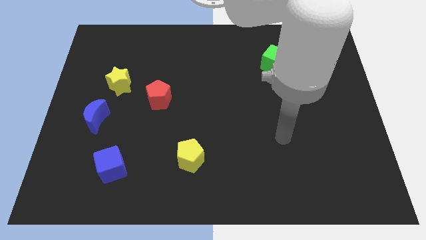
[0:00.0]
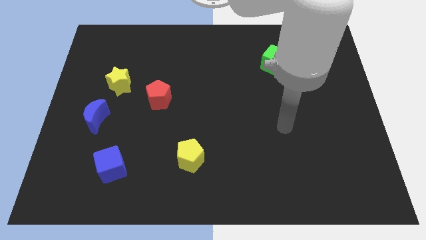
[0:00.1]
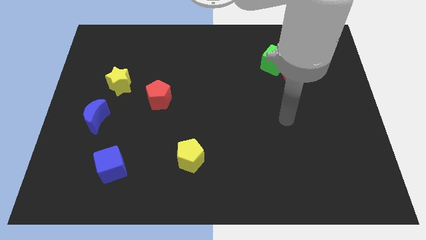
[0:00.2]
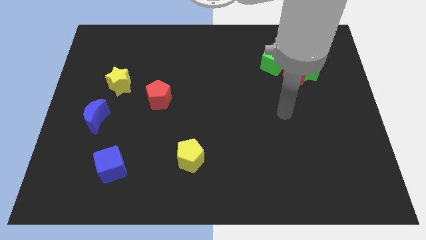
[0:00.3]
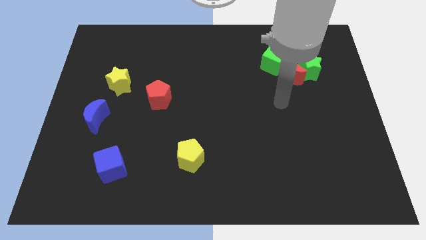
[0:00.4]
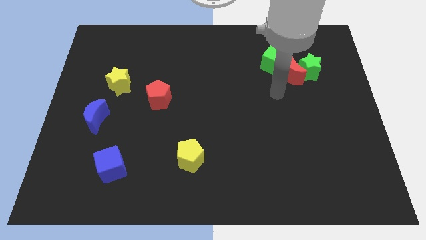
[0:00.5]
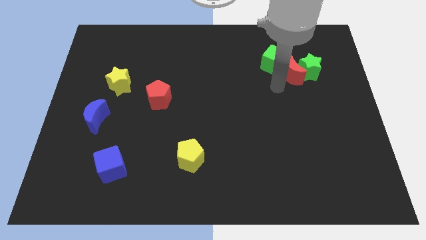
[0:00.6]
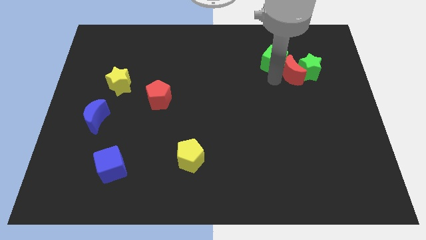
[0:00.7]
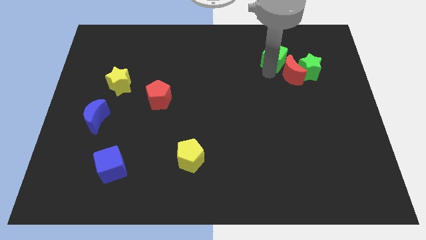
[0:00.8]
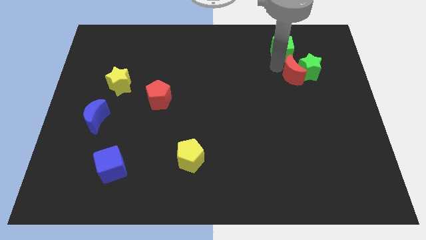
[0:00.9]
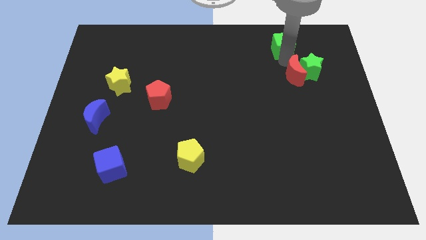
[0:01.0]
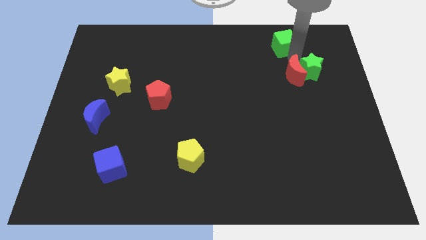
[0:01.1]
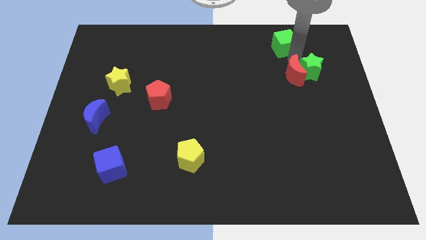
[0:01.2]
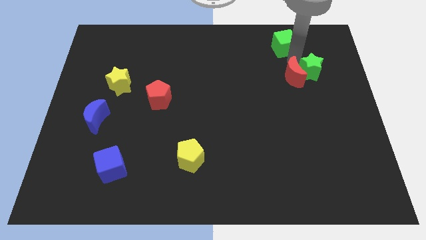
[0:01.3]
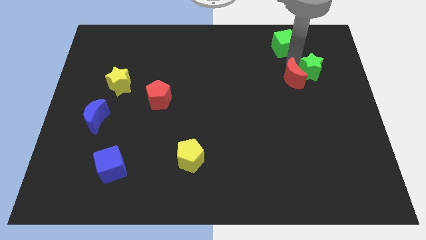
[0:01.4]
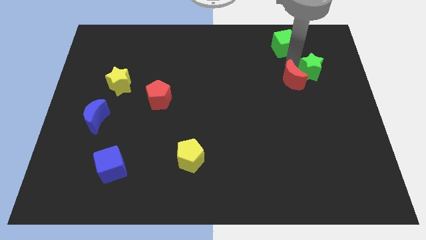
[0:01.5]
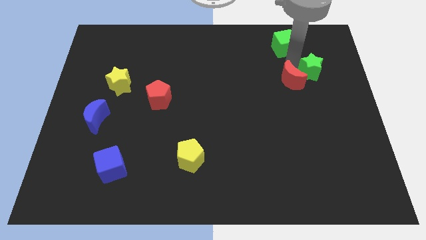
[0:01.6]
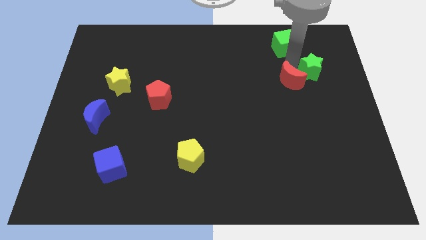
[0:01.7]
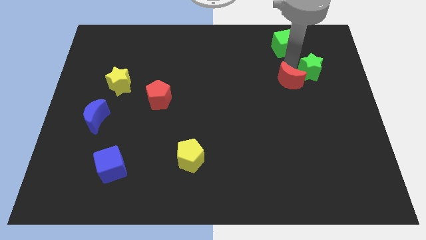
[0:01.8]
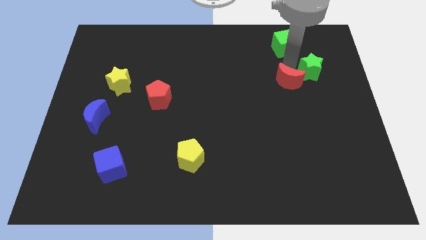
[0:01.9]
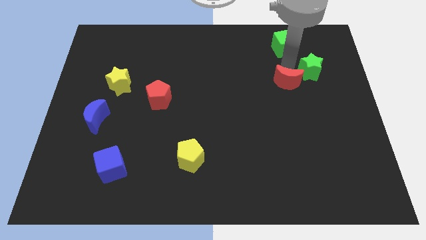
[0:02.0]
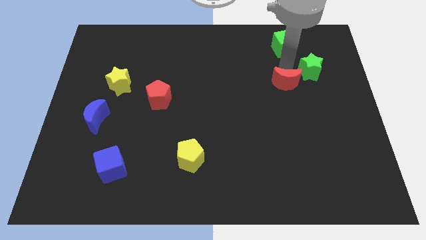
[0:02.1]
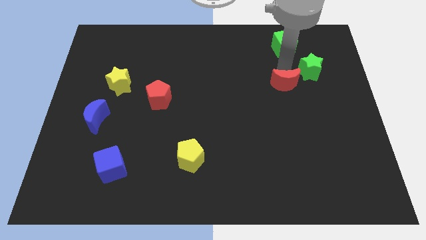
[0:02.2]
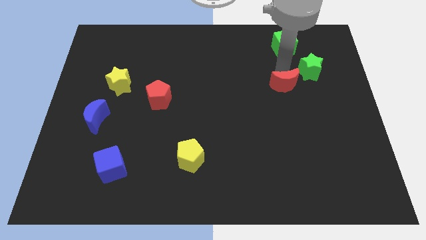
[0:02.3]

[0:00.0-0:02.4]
move the red moon away from the green star and green cube

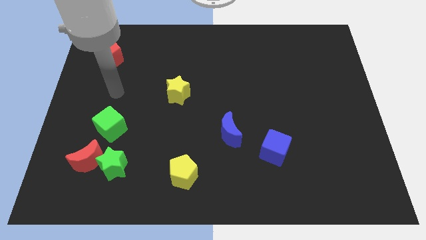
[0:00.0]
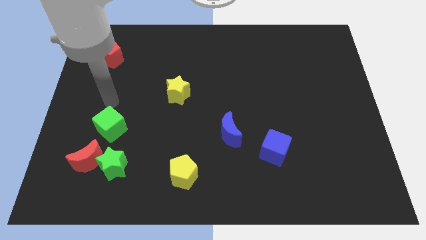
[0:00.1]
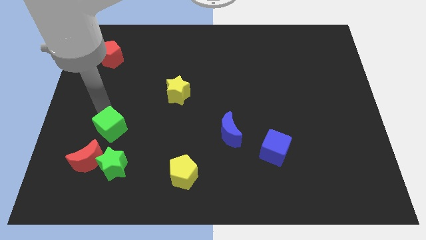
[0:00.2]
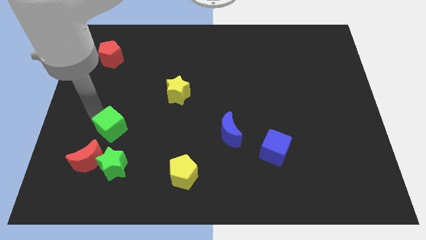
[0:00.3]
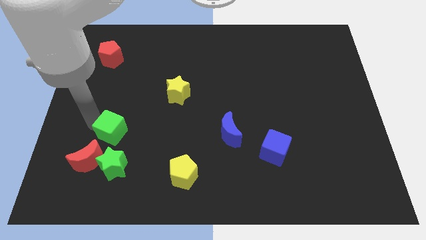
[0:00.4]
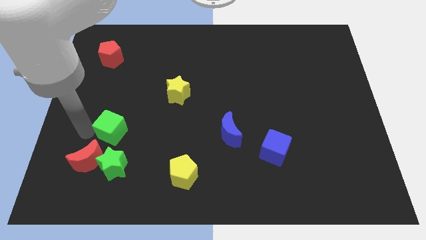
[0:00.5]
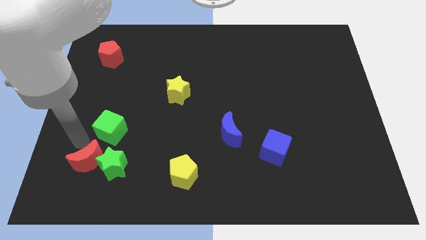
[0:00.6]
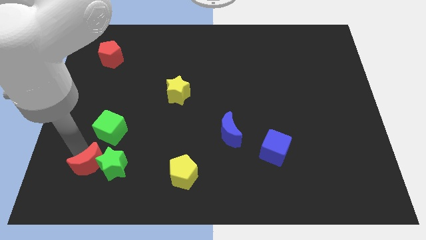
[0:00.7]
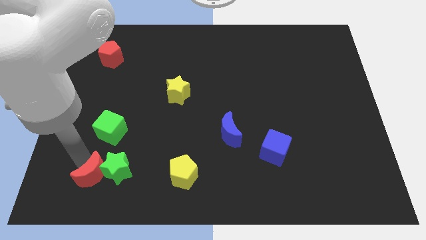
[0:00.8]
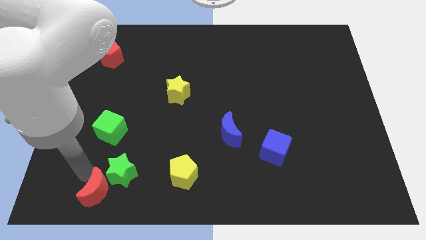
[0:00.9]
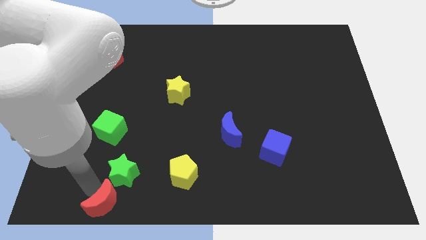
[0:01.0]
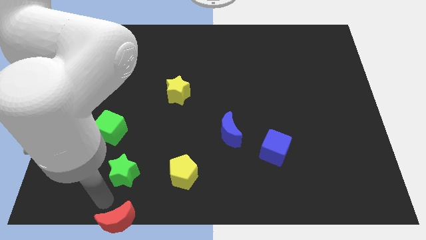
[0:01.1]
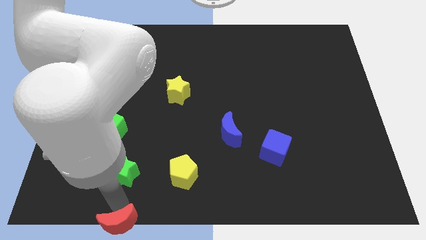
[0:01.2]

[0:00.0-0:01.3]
pull the green star apart from the red moon

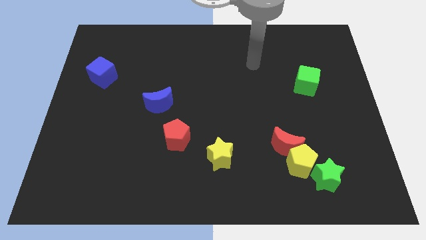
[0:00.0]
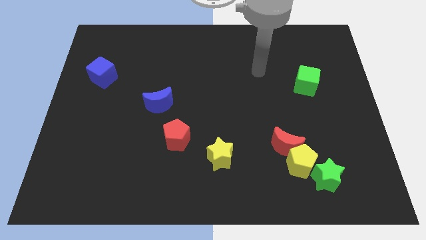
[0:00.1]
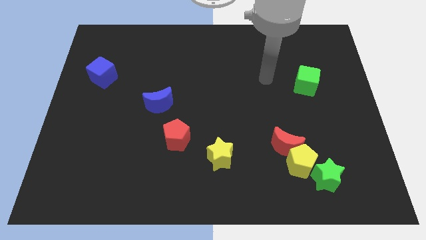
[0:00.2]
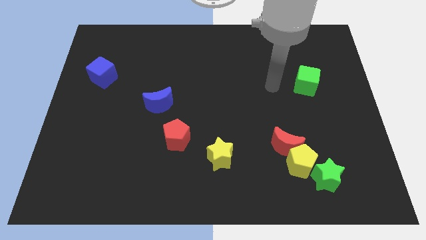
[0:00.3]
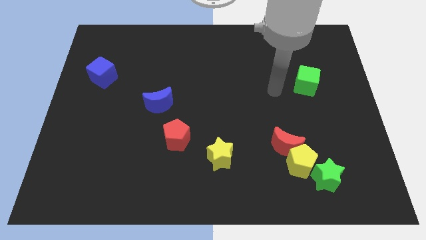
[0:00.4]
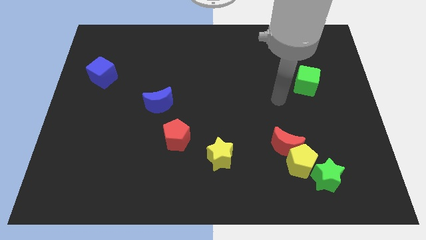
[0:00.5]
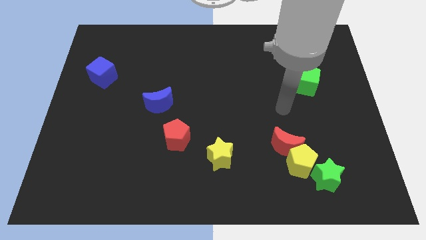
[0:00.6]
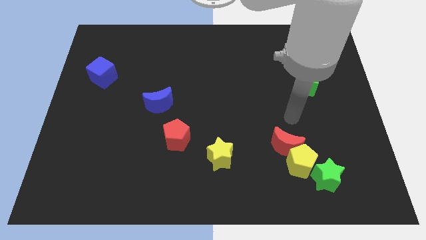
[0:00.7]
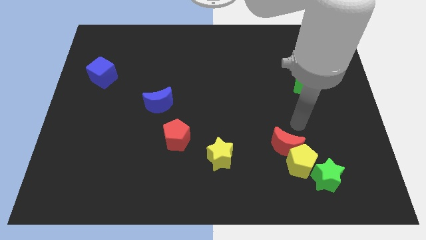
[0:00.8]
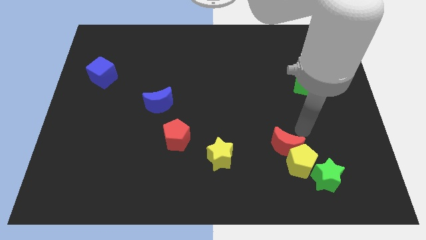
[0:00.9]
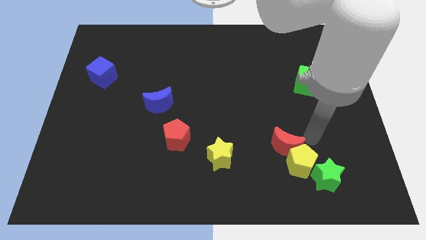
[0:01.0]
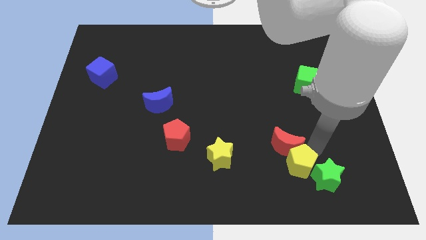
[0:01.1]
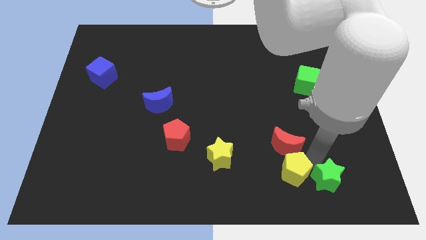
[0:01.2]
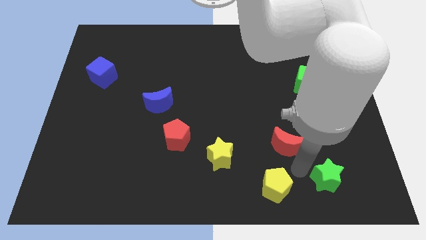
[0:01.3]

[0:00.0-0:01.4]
separate the red moon from the yellow pentagon

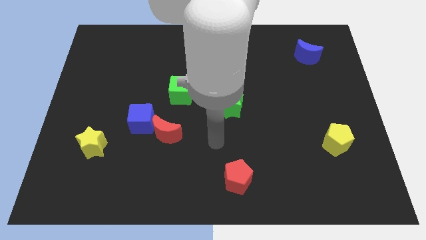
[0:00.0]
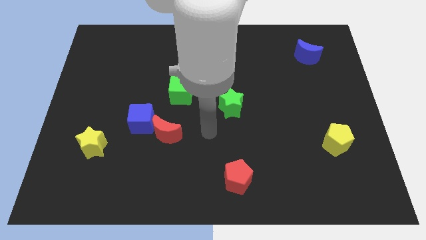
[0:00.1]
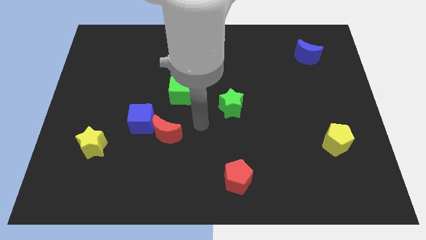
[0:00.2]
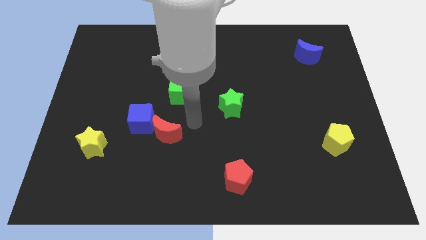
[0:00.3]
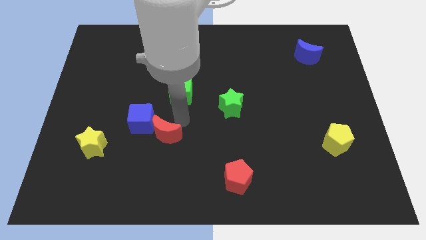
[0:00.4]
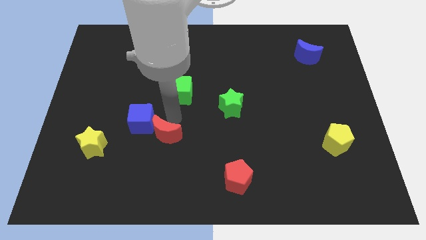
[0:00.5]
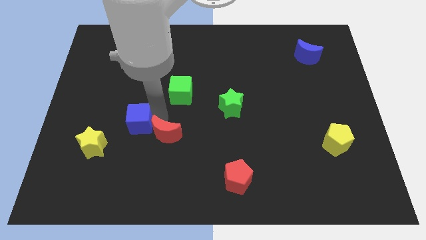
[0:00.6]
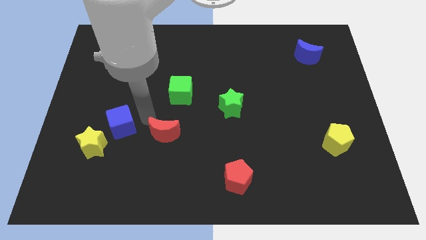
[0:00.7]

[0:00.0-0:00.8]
separate the red moon from the blue cube

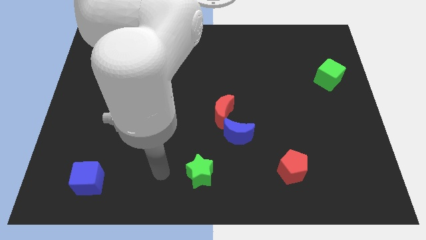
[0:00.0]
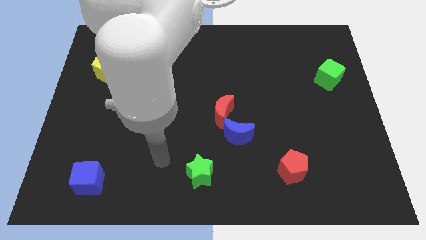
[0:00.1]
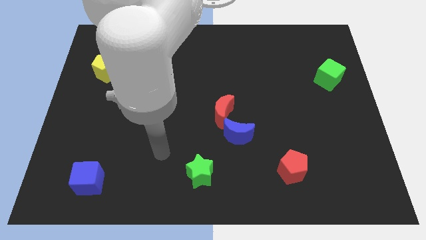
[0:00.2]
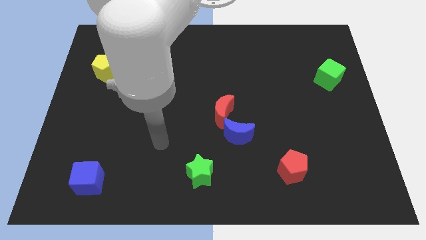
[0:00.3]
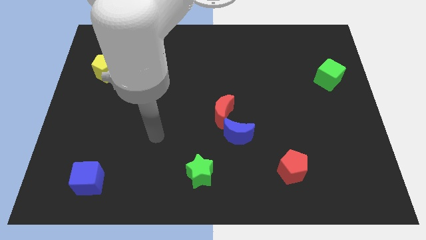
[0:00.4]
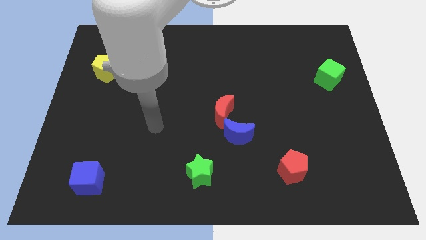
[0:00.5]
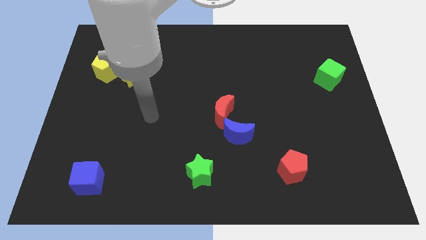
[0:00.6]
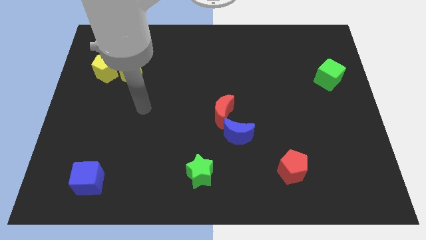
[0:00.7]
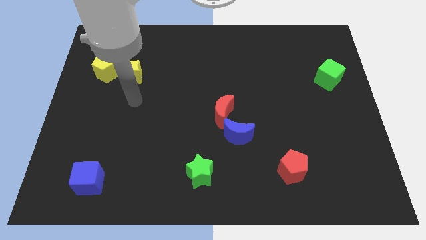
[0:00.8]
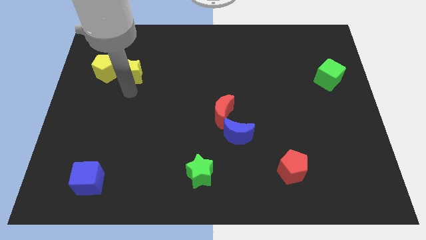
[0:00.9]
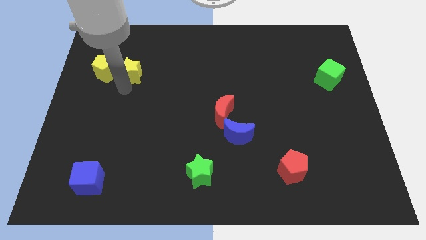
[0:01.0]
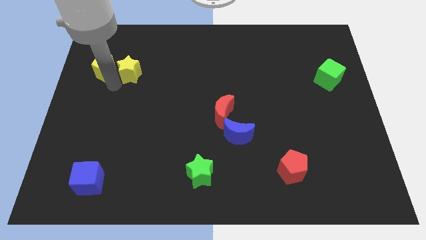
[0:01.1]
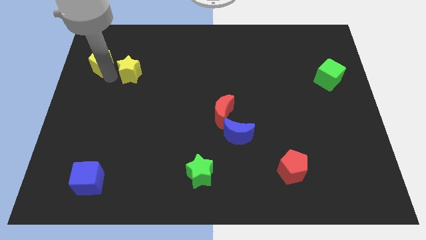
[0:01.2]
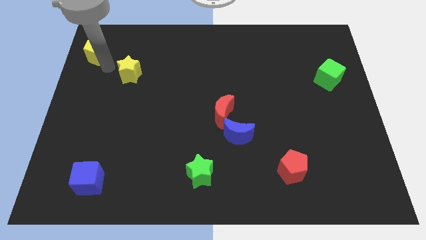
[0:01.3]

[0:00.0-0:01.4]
move the yellow star away from the yellow pentagon

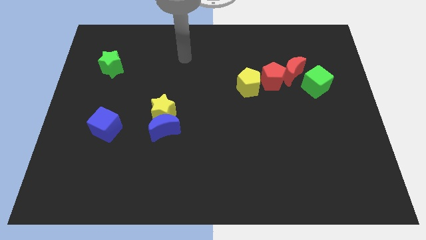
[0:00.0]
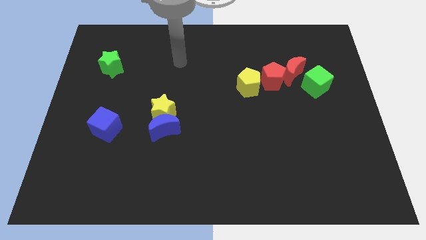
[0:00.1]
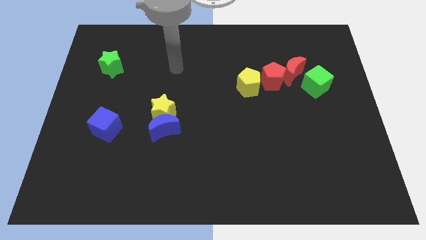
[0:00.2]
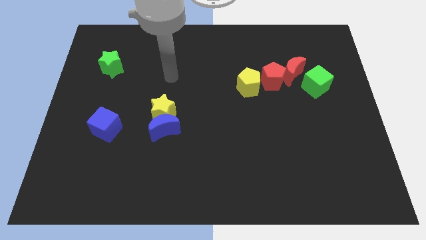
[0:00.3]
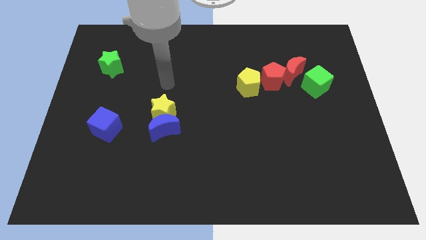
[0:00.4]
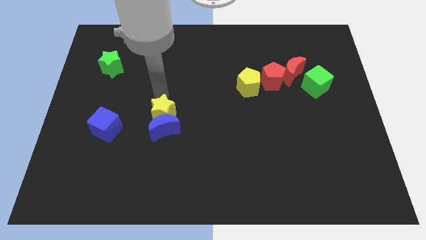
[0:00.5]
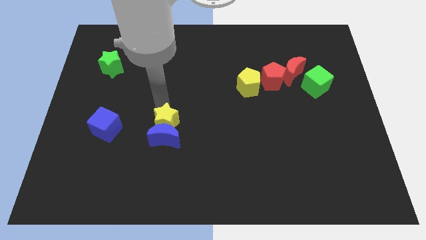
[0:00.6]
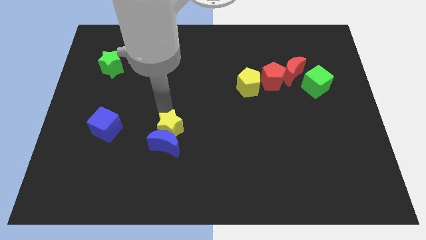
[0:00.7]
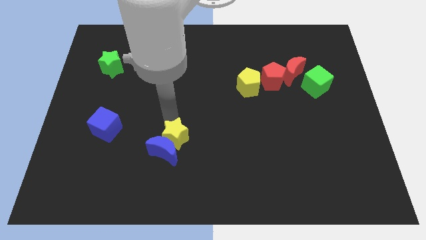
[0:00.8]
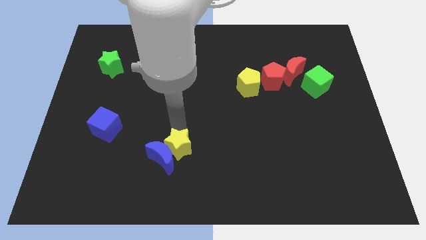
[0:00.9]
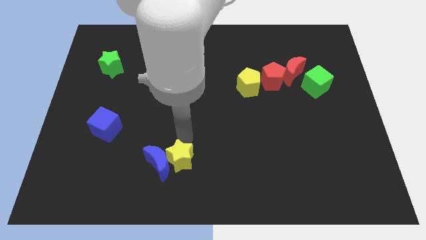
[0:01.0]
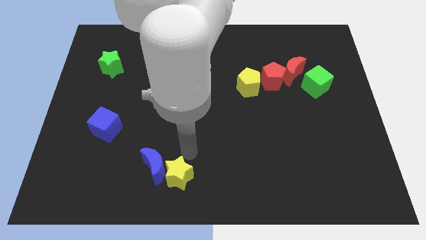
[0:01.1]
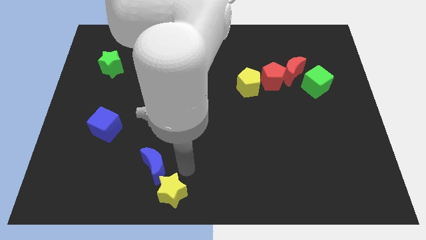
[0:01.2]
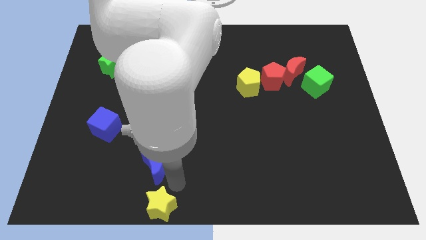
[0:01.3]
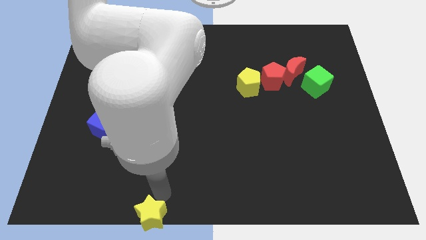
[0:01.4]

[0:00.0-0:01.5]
separate the blue moon from the yellow star

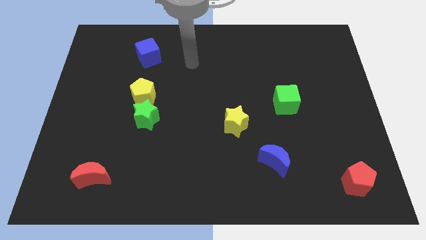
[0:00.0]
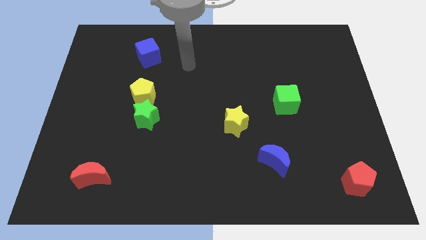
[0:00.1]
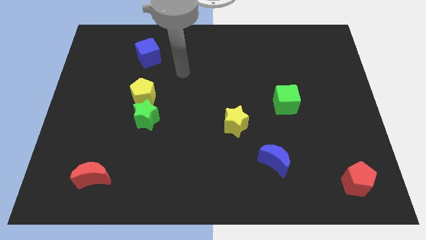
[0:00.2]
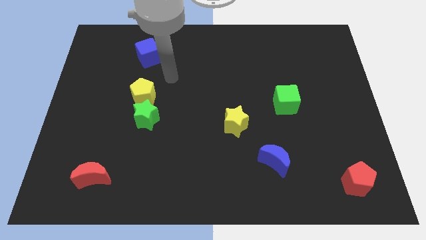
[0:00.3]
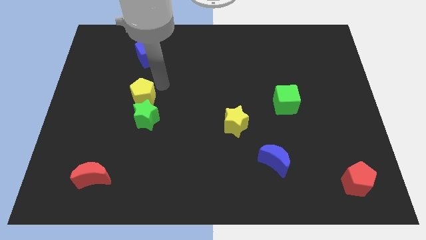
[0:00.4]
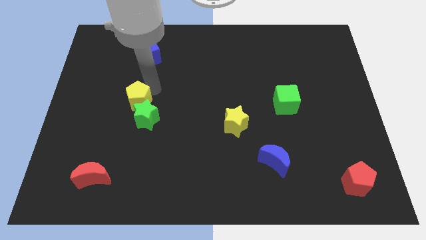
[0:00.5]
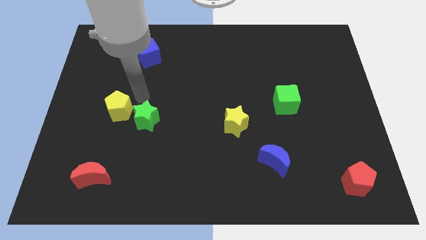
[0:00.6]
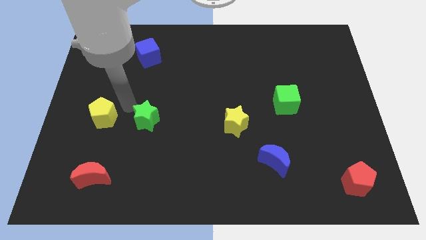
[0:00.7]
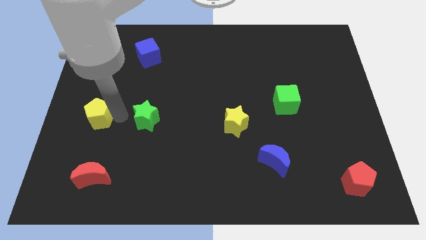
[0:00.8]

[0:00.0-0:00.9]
pull the green star apart from the yellow pentagon
